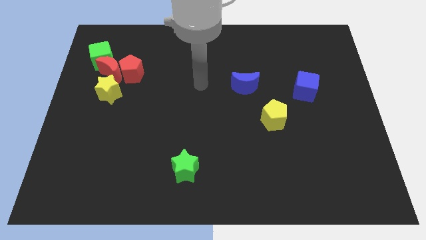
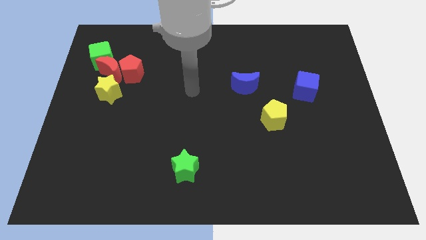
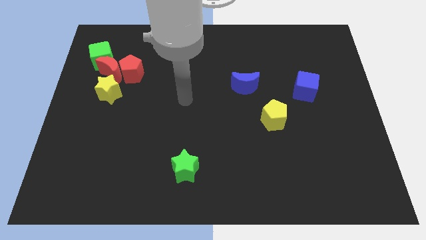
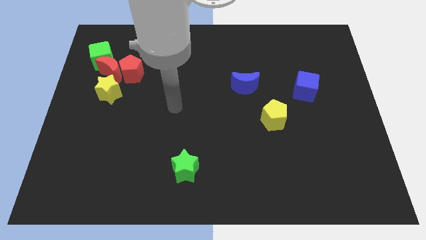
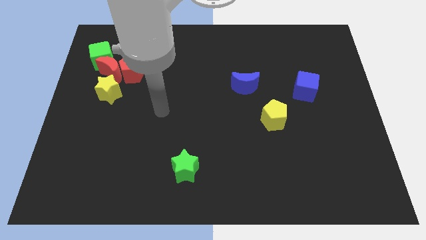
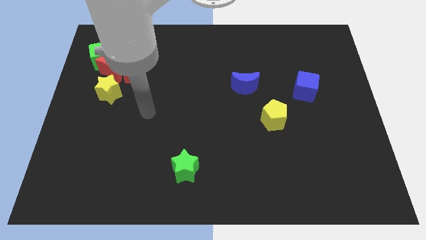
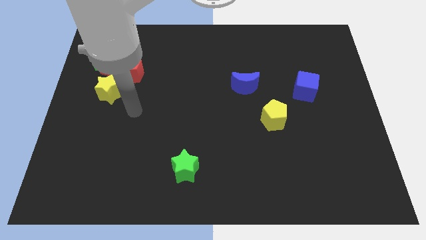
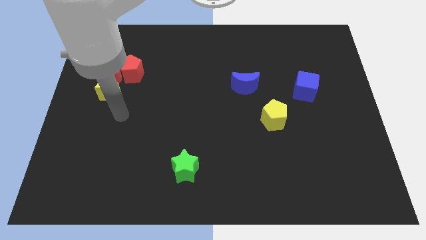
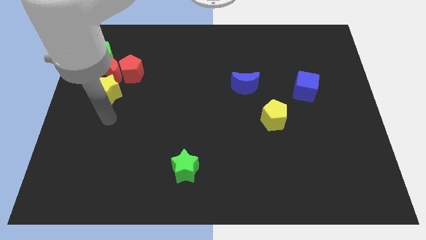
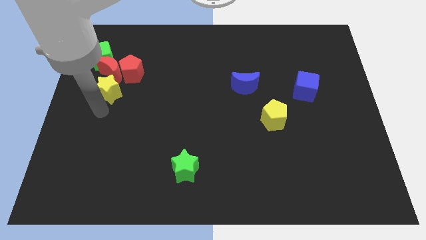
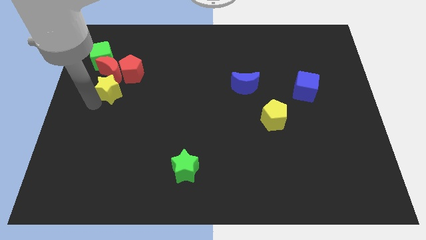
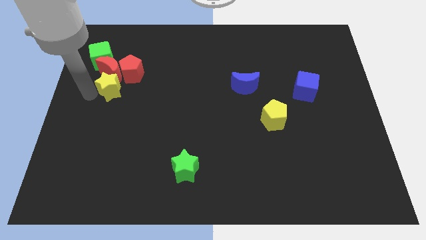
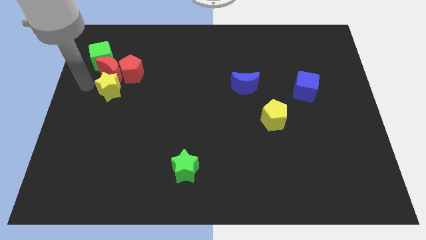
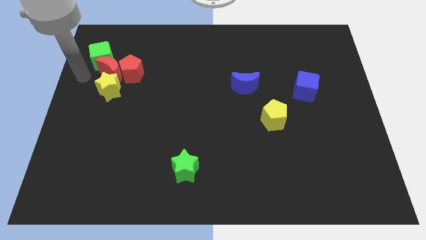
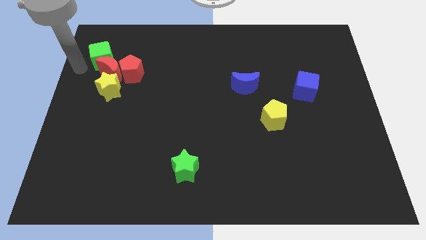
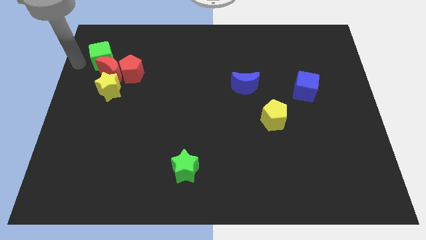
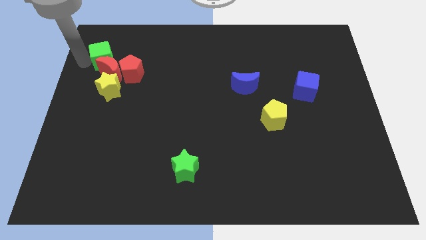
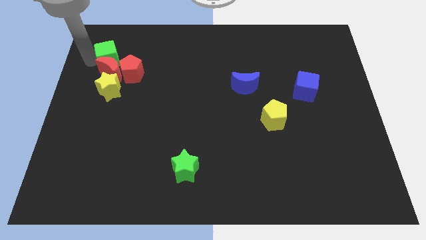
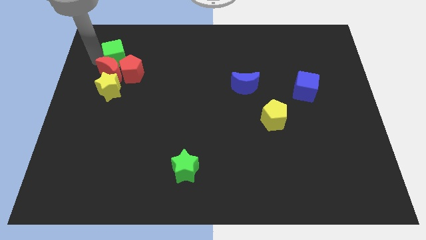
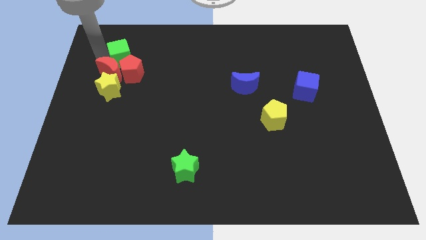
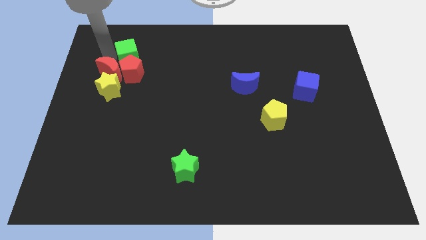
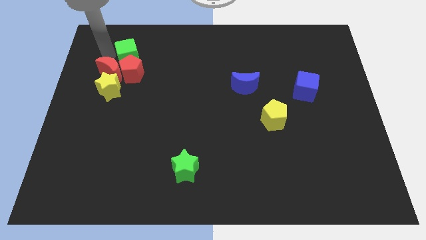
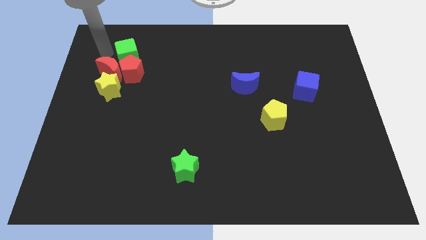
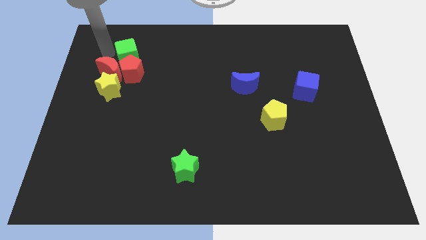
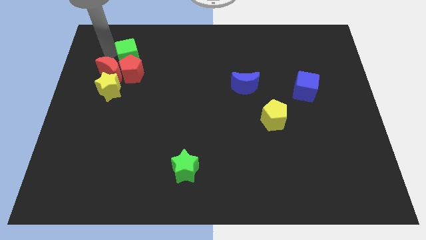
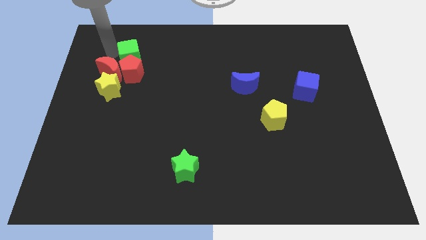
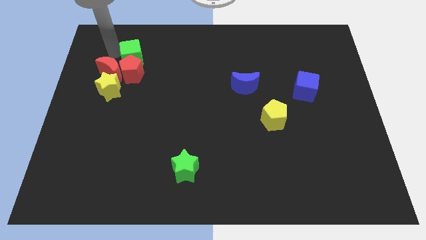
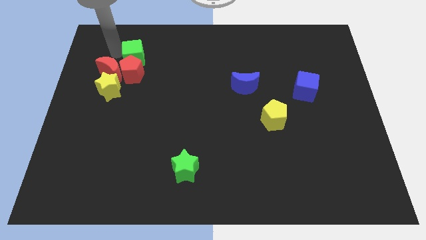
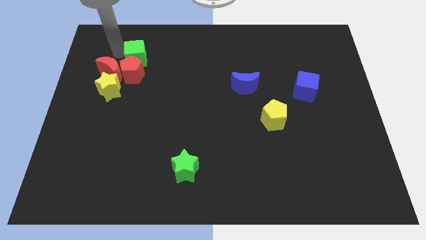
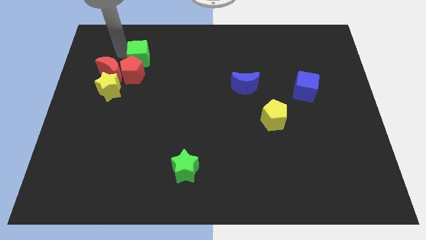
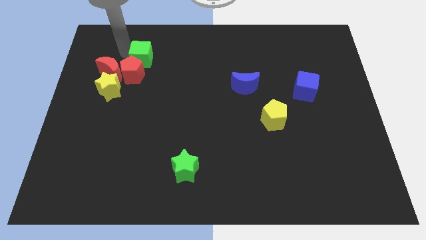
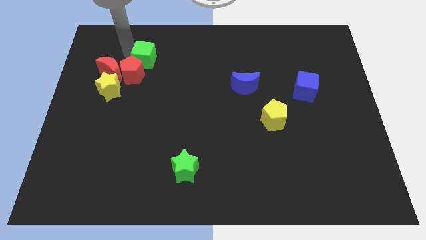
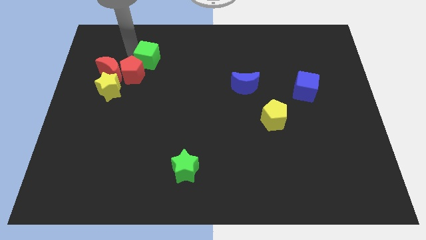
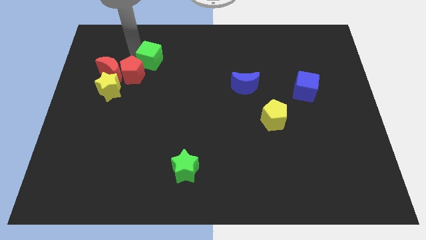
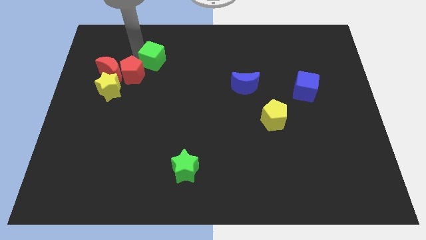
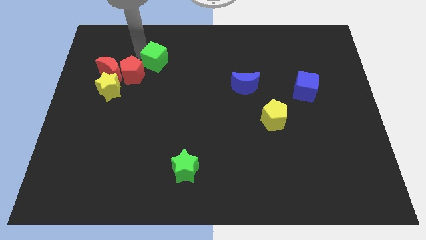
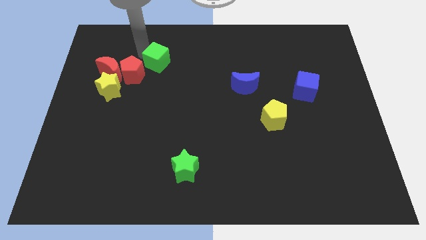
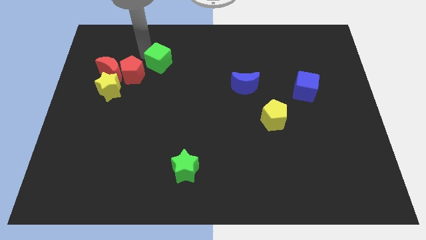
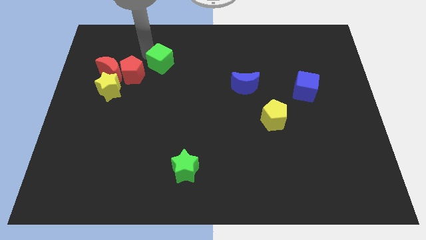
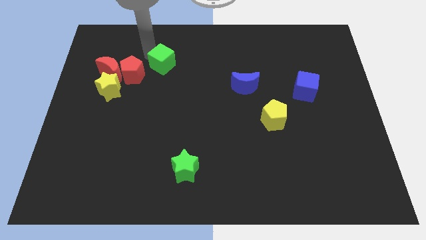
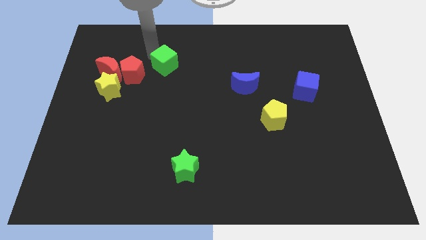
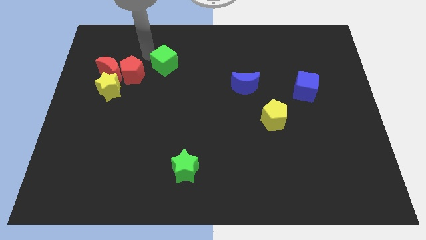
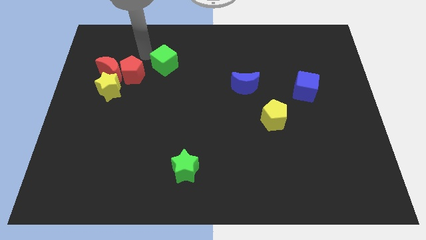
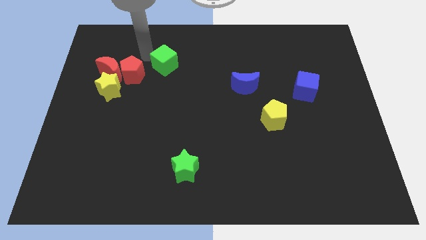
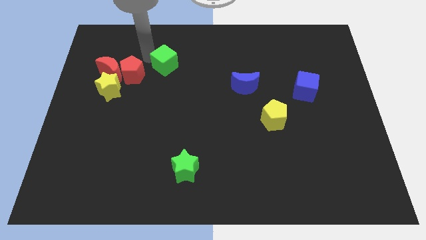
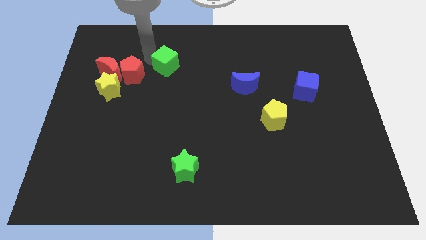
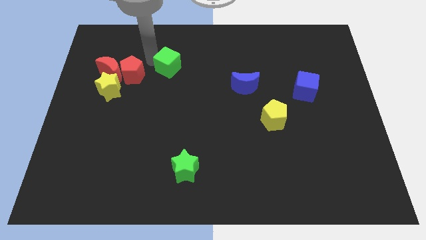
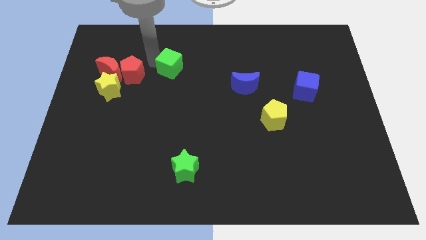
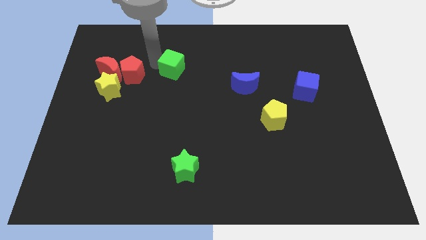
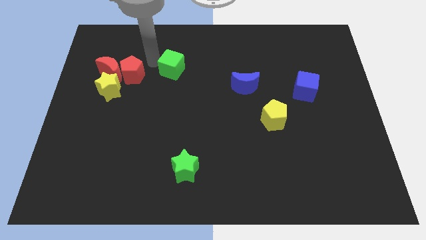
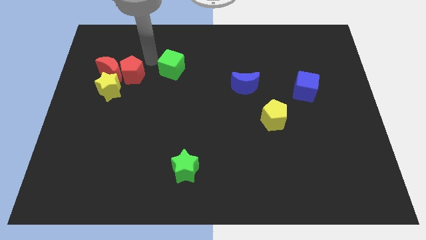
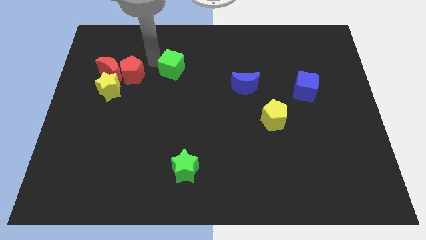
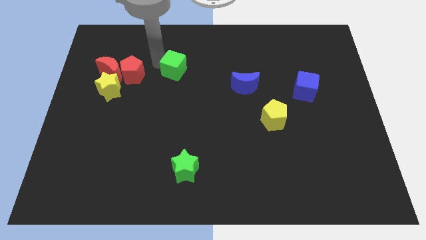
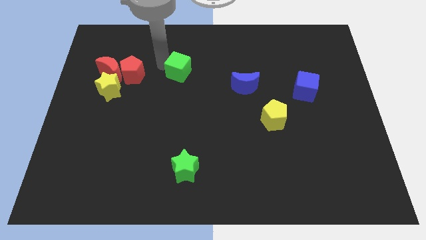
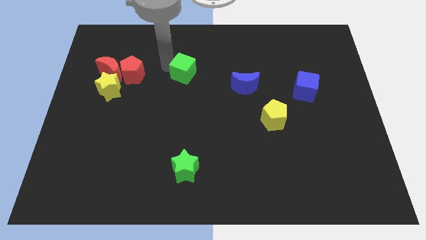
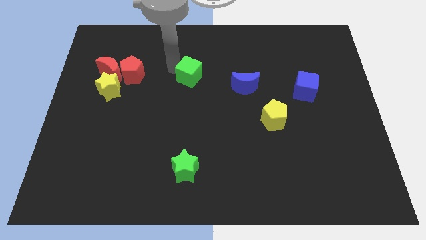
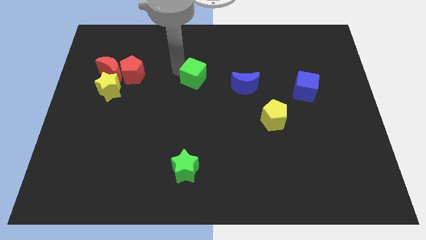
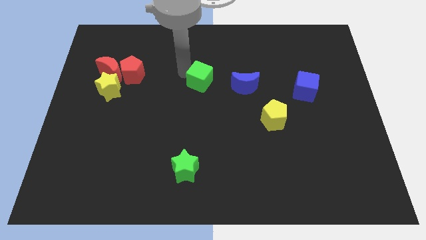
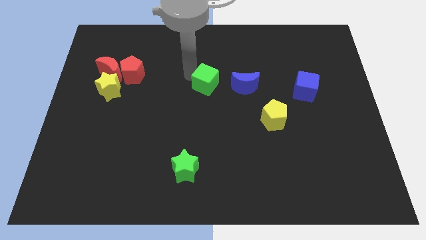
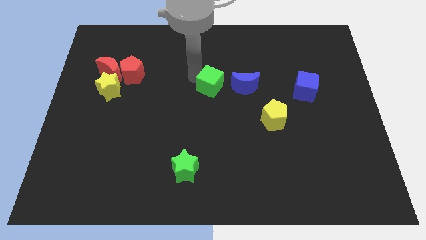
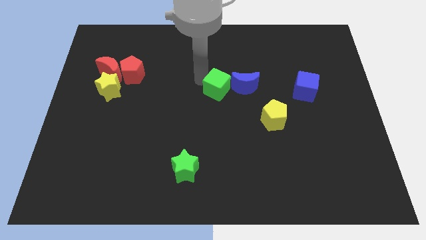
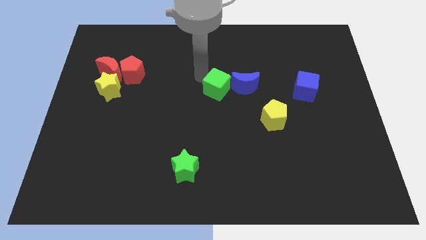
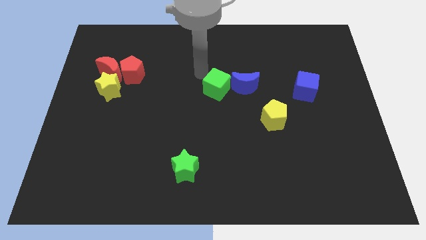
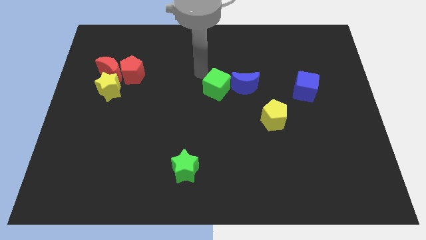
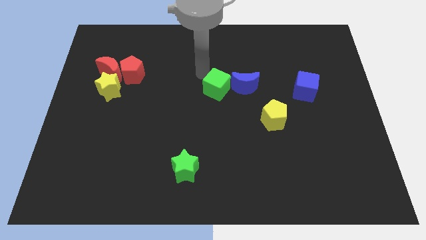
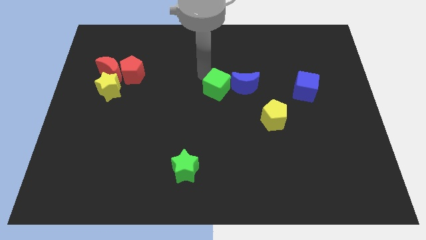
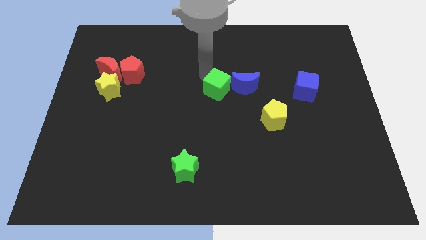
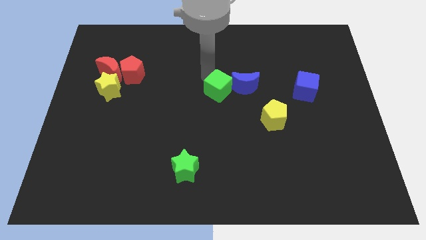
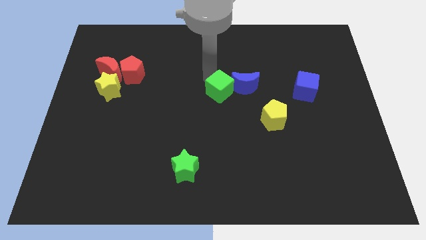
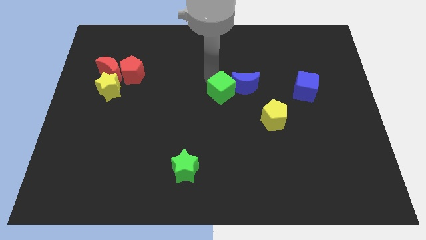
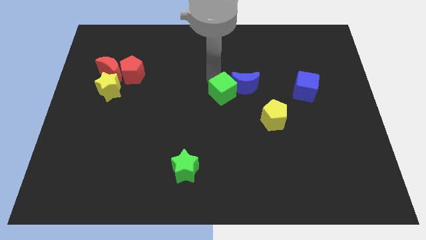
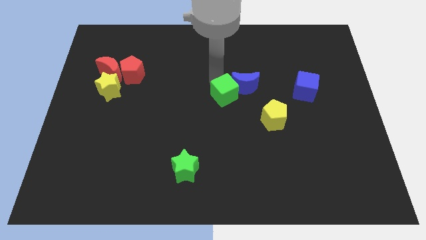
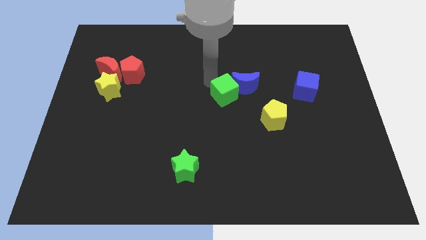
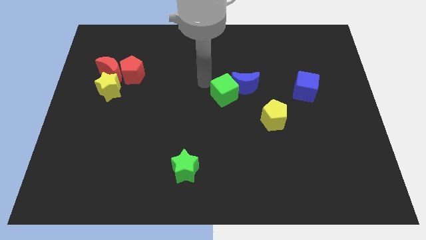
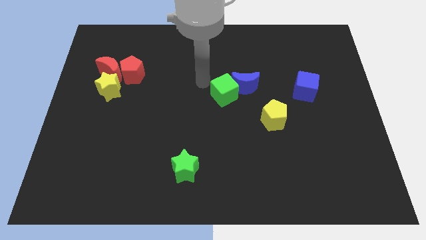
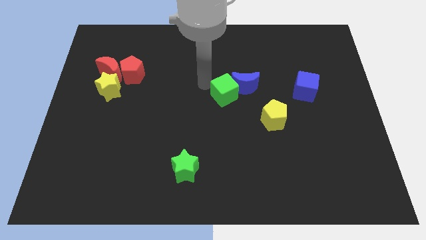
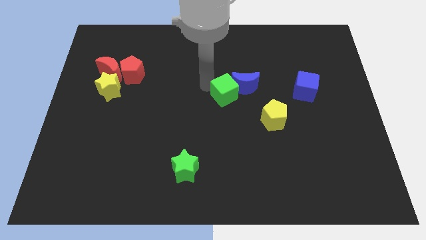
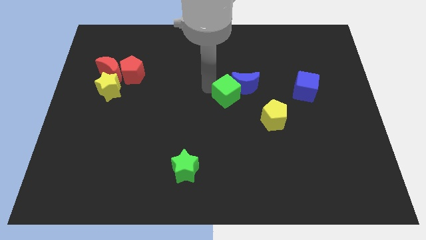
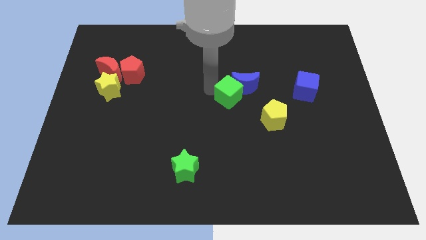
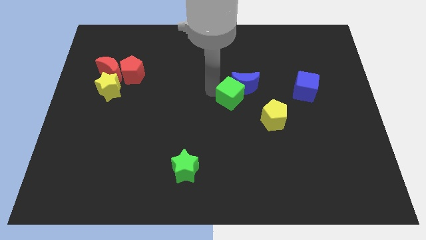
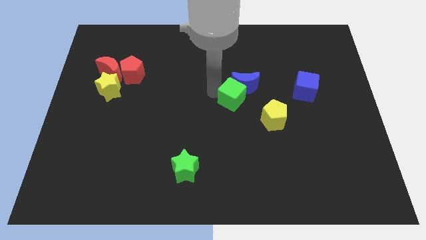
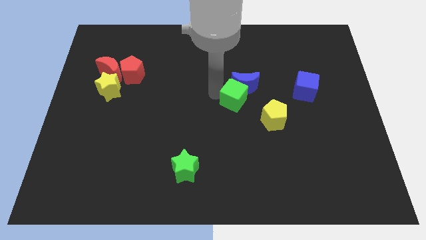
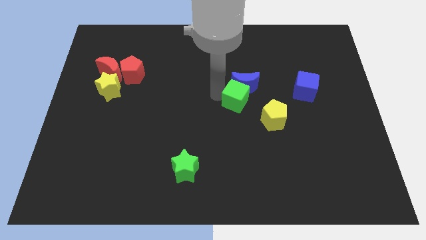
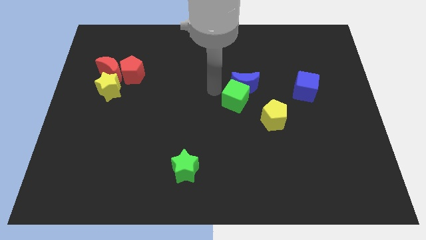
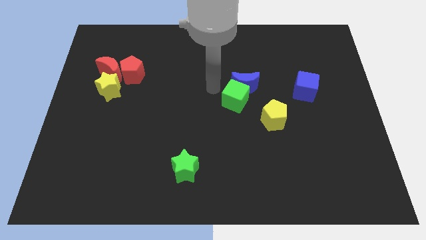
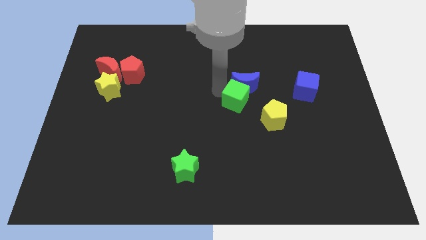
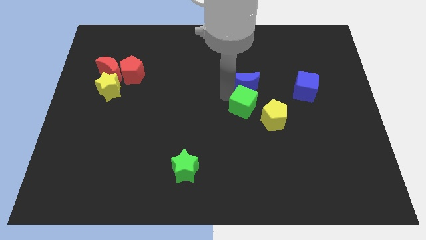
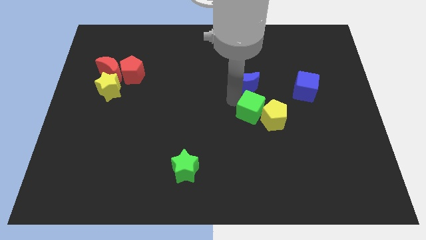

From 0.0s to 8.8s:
push the green cube towards the yellow pentagon
